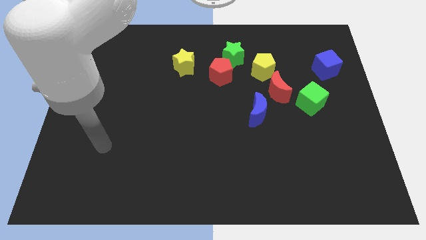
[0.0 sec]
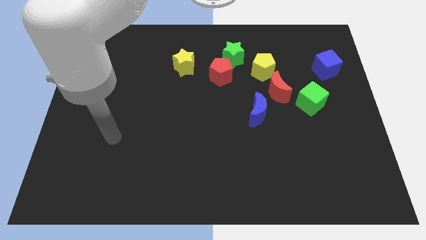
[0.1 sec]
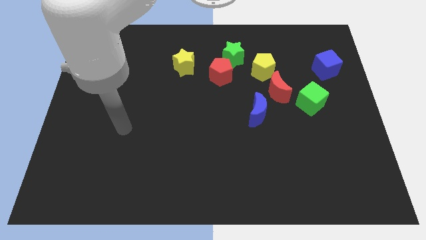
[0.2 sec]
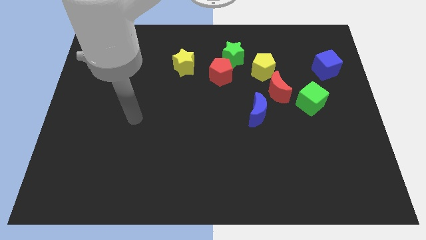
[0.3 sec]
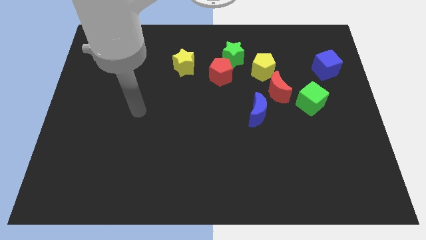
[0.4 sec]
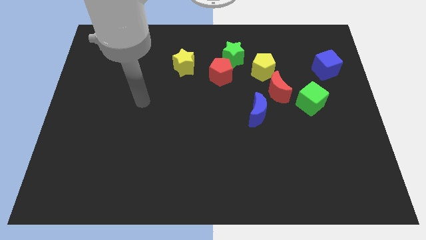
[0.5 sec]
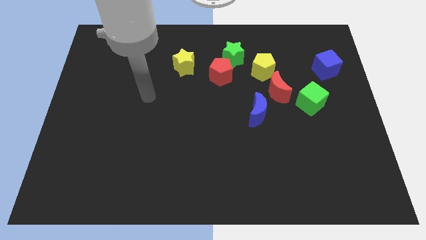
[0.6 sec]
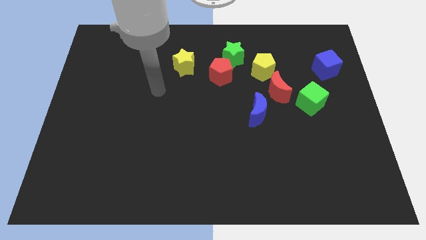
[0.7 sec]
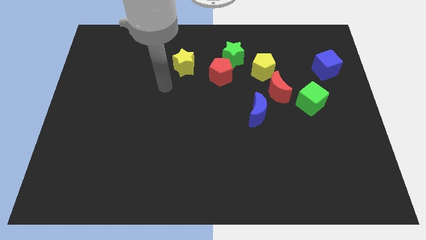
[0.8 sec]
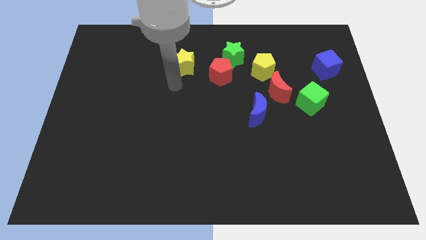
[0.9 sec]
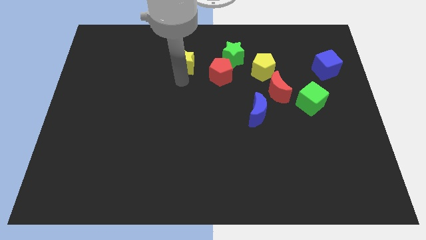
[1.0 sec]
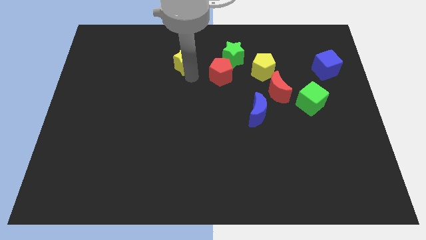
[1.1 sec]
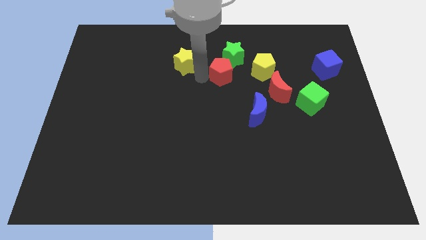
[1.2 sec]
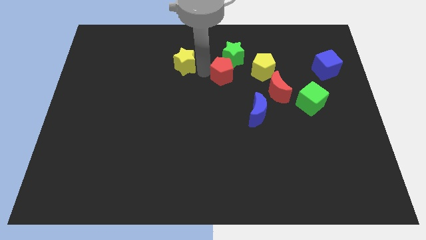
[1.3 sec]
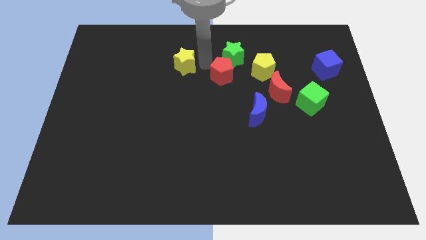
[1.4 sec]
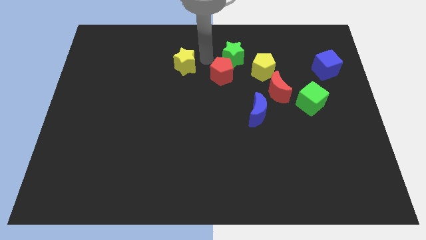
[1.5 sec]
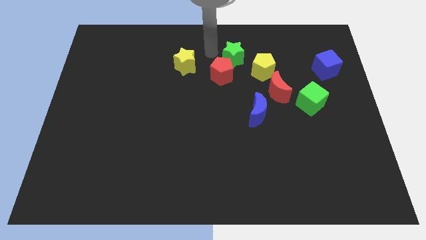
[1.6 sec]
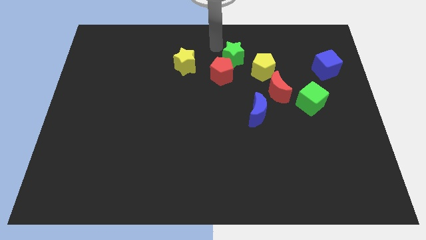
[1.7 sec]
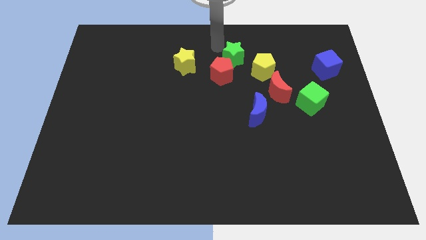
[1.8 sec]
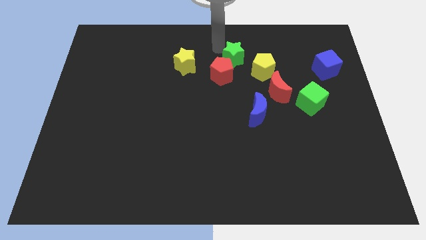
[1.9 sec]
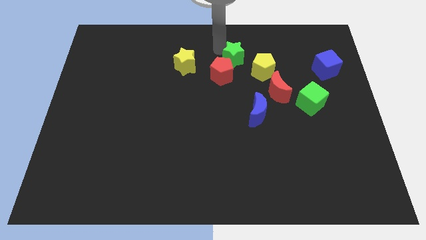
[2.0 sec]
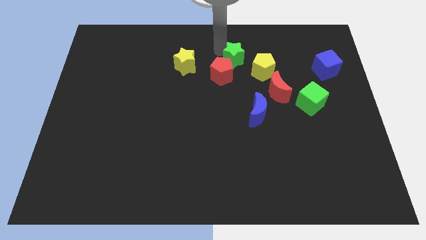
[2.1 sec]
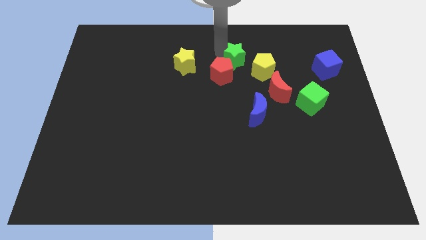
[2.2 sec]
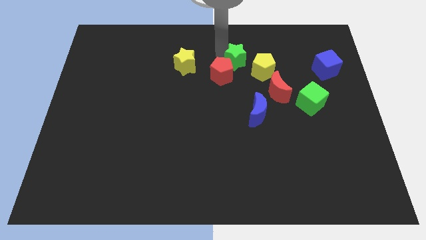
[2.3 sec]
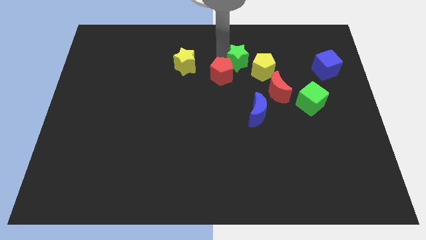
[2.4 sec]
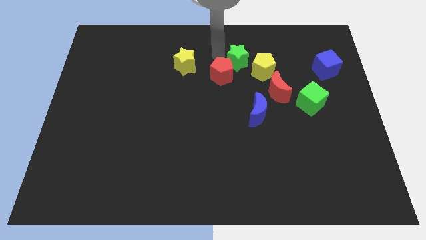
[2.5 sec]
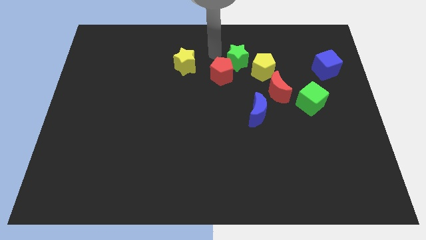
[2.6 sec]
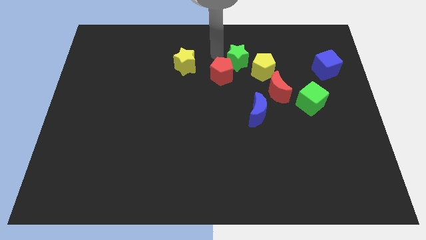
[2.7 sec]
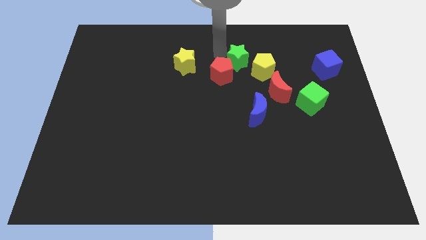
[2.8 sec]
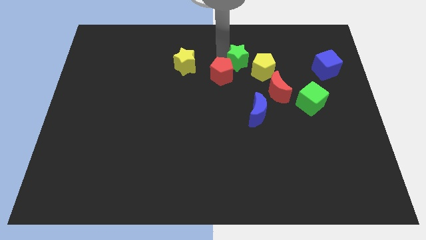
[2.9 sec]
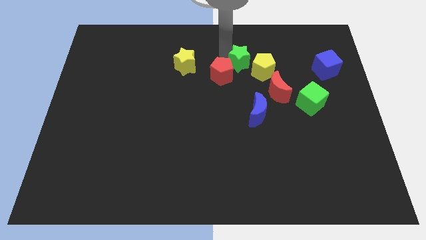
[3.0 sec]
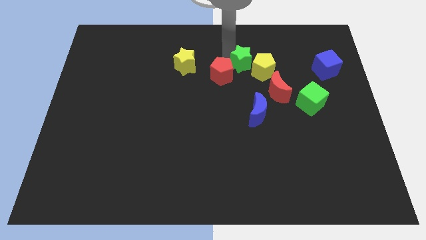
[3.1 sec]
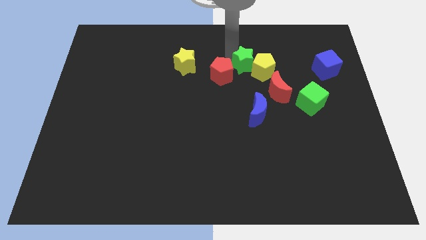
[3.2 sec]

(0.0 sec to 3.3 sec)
push the green star next to the yellow pentagon

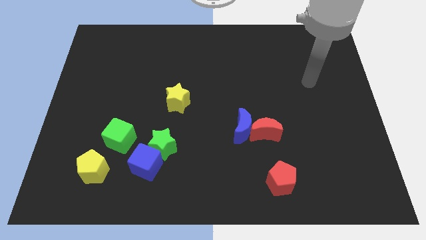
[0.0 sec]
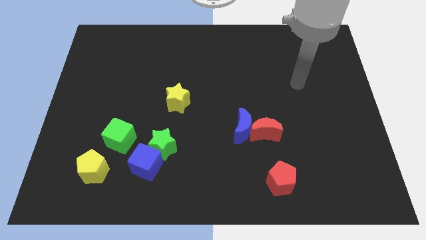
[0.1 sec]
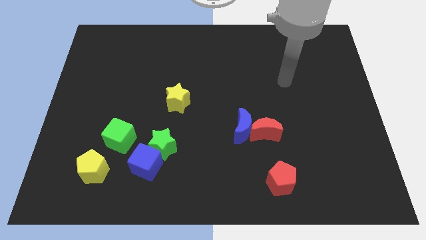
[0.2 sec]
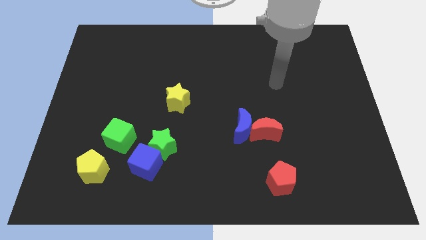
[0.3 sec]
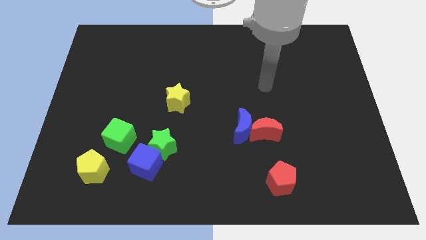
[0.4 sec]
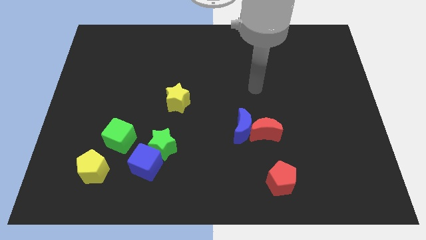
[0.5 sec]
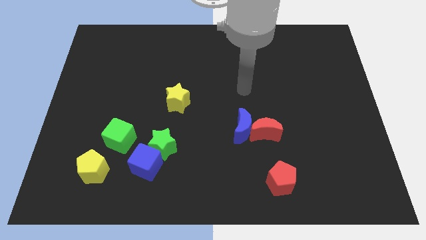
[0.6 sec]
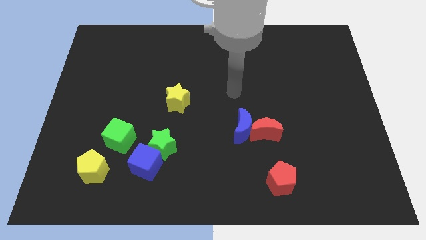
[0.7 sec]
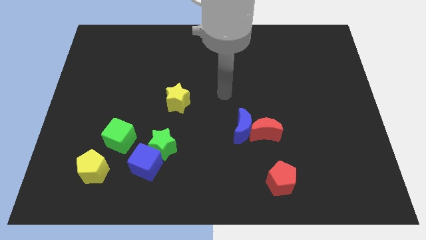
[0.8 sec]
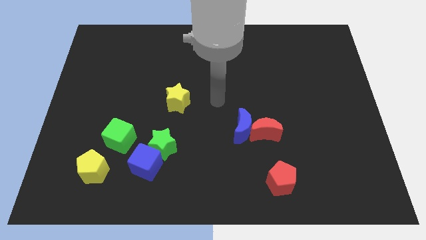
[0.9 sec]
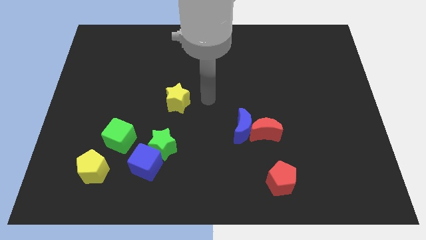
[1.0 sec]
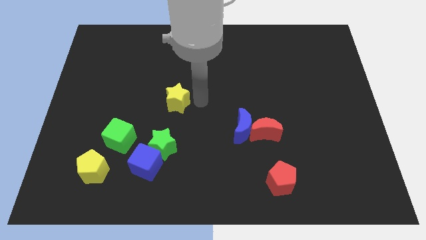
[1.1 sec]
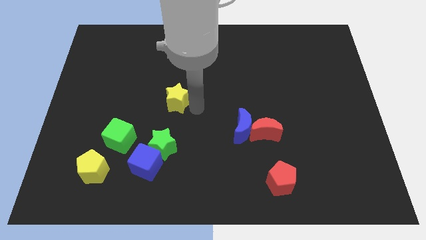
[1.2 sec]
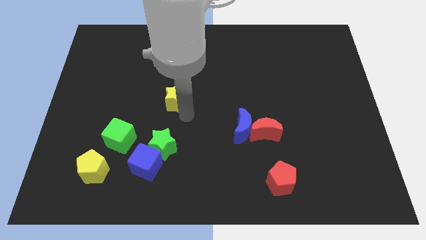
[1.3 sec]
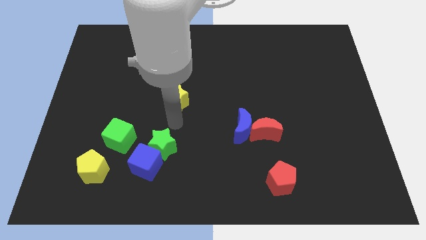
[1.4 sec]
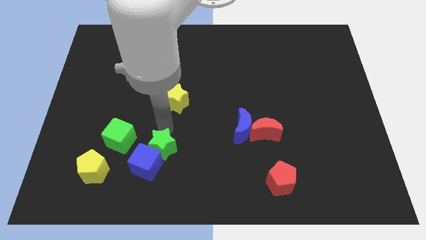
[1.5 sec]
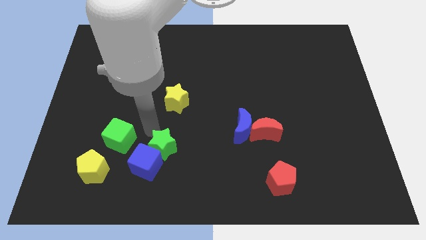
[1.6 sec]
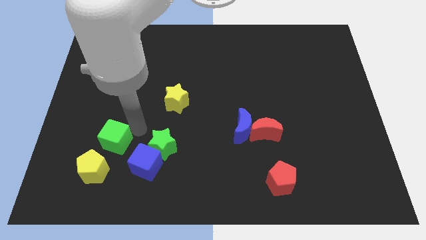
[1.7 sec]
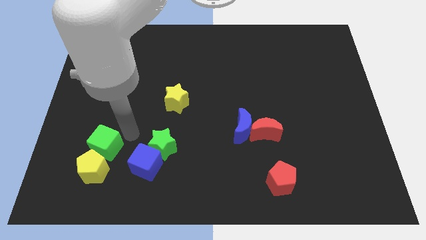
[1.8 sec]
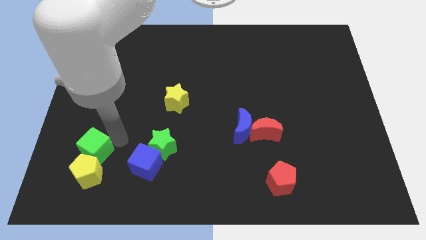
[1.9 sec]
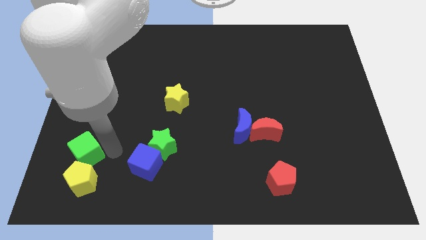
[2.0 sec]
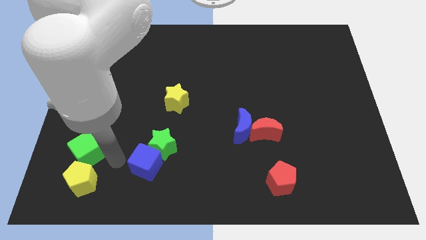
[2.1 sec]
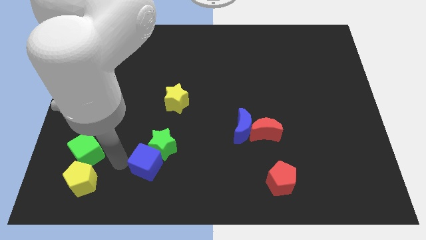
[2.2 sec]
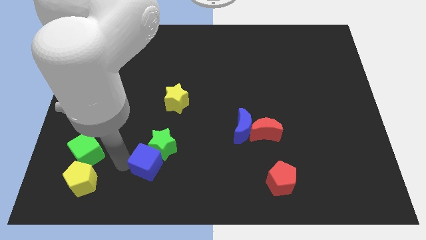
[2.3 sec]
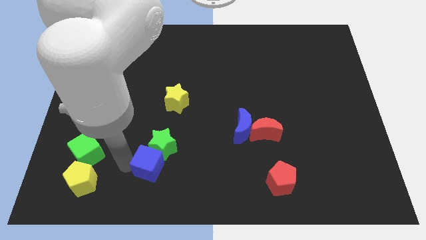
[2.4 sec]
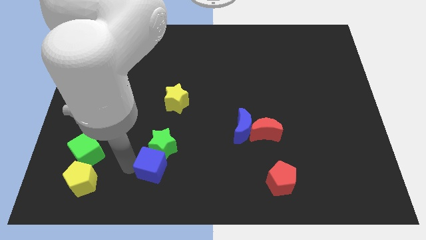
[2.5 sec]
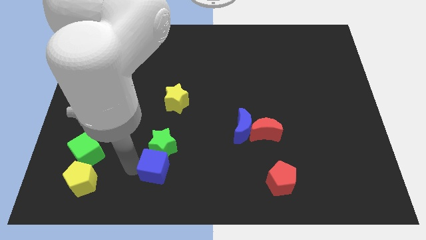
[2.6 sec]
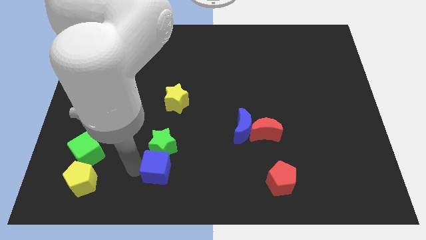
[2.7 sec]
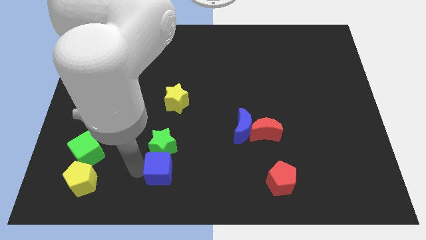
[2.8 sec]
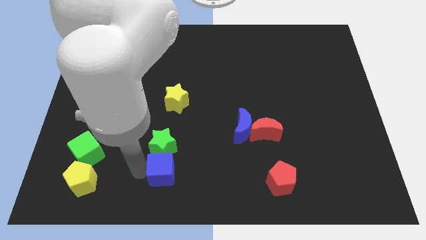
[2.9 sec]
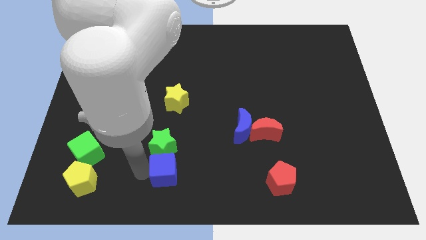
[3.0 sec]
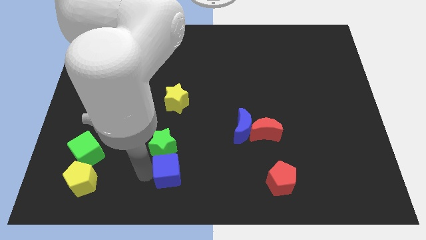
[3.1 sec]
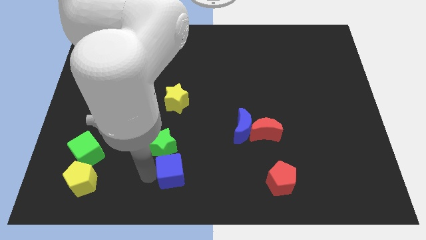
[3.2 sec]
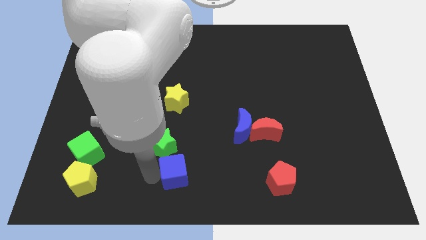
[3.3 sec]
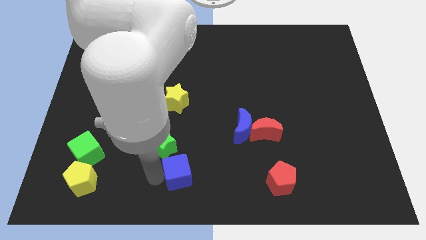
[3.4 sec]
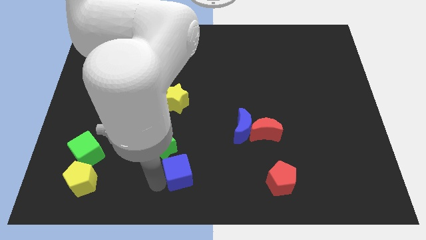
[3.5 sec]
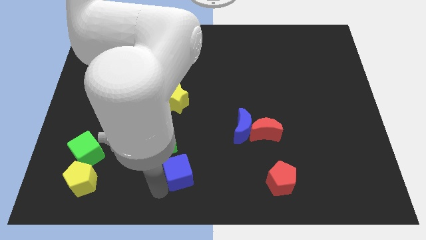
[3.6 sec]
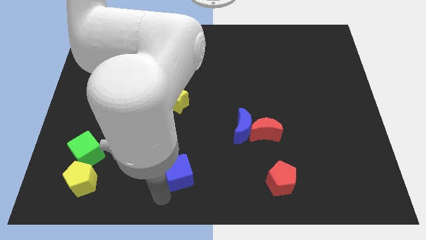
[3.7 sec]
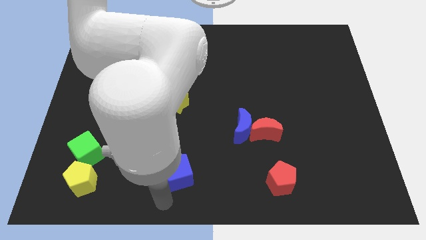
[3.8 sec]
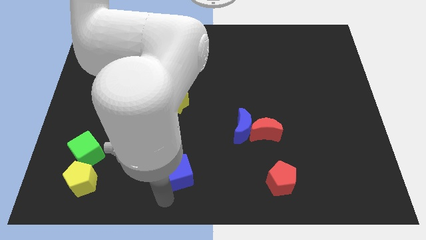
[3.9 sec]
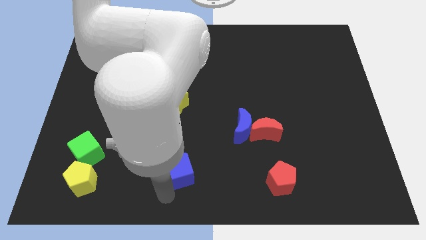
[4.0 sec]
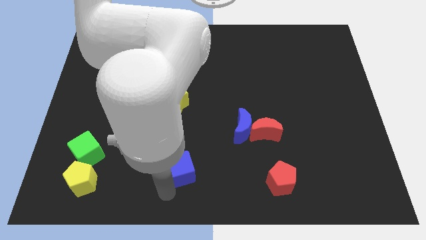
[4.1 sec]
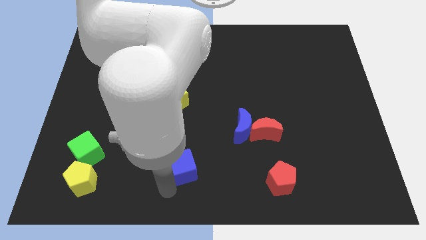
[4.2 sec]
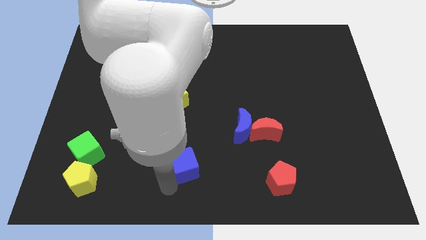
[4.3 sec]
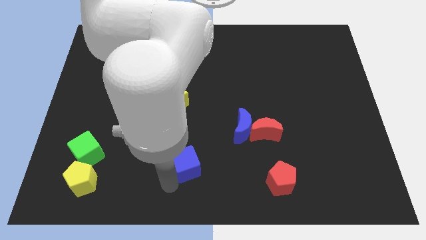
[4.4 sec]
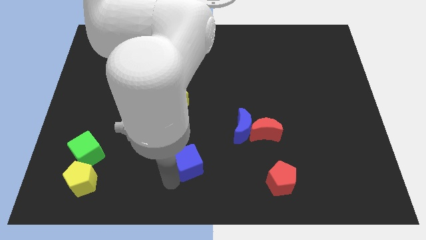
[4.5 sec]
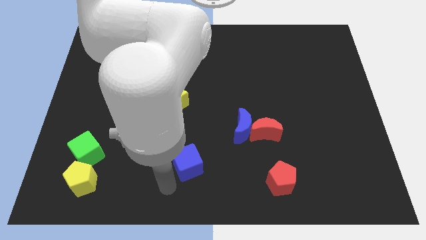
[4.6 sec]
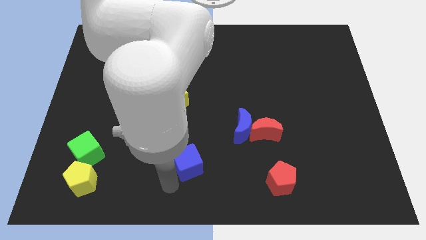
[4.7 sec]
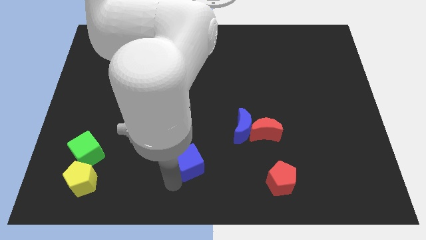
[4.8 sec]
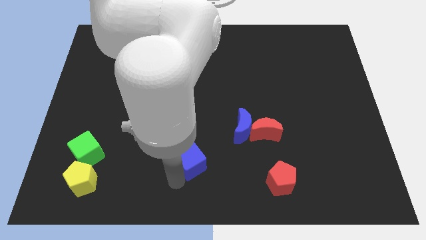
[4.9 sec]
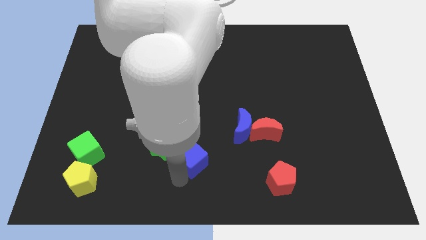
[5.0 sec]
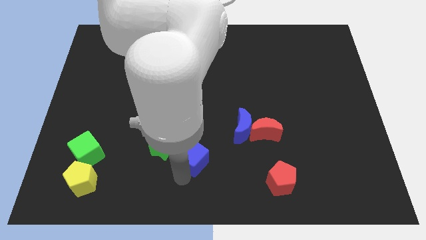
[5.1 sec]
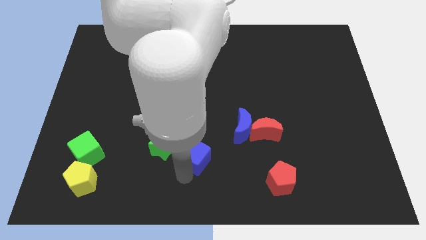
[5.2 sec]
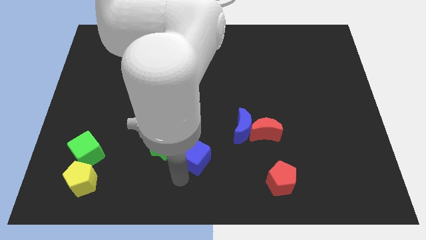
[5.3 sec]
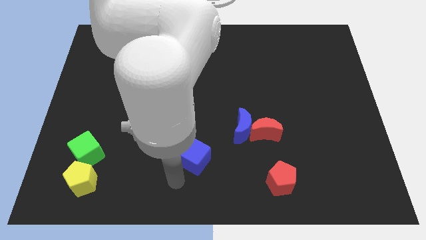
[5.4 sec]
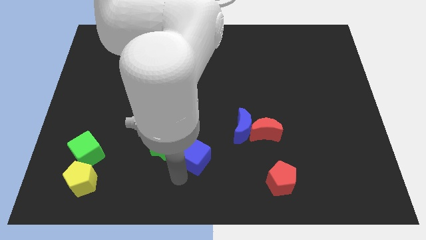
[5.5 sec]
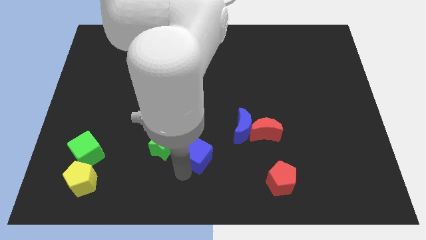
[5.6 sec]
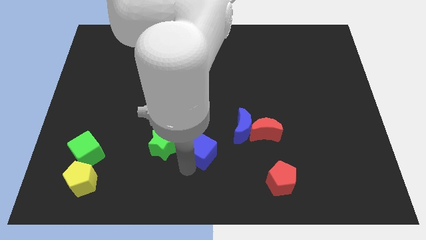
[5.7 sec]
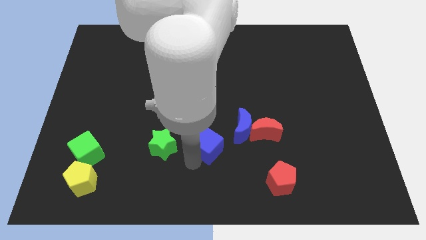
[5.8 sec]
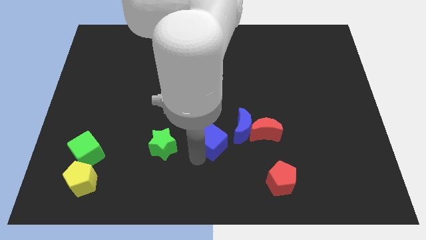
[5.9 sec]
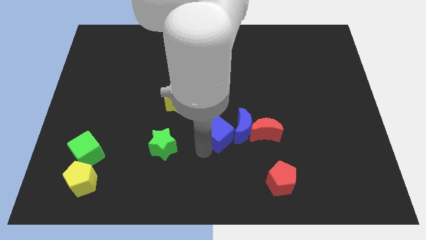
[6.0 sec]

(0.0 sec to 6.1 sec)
push the blue cube to the blue moon
